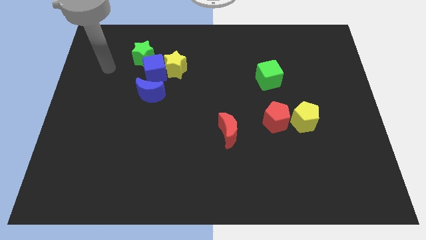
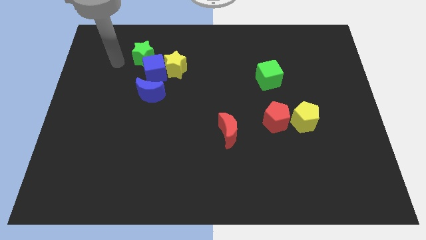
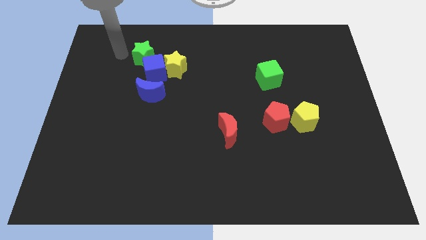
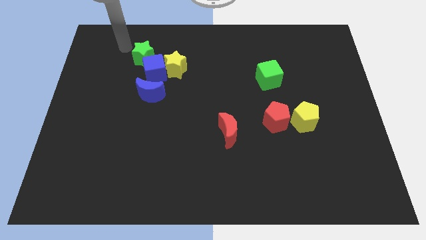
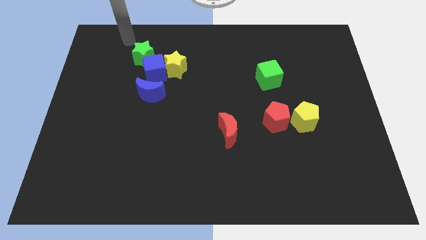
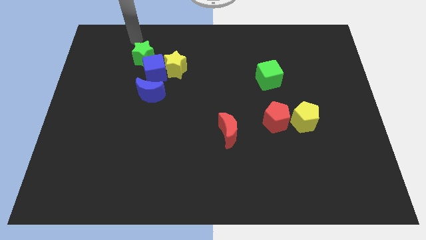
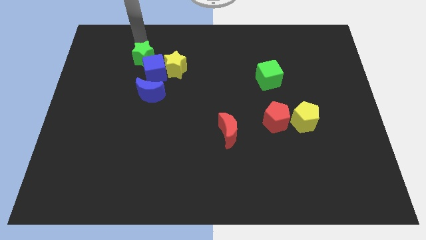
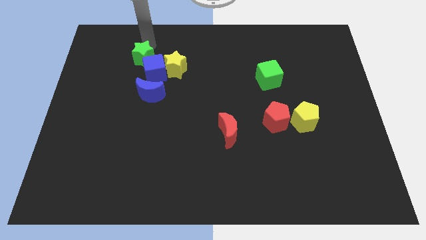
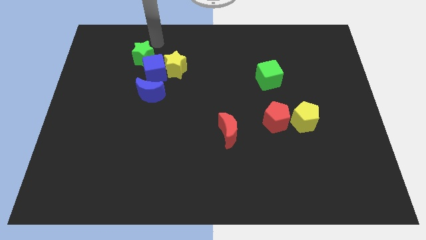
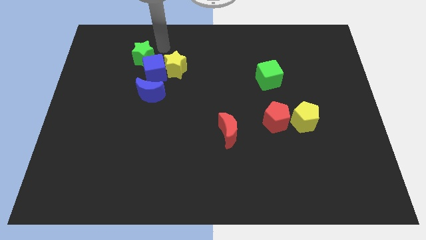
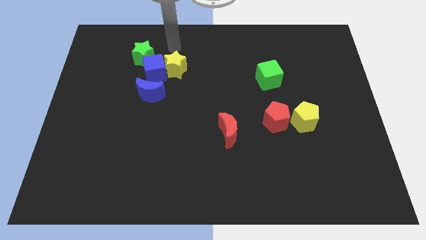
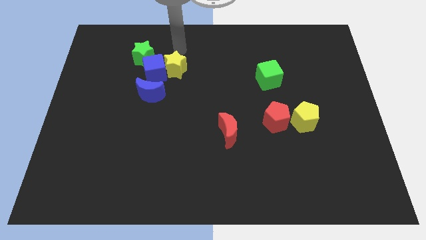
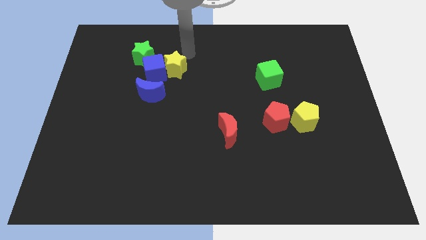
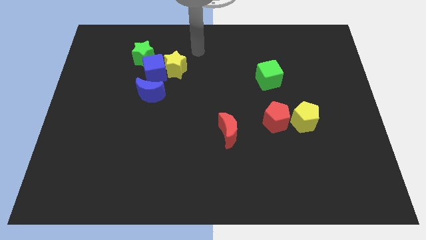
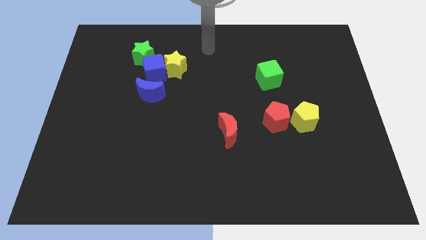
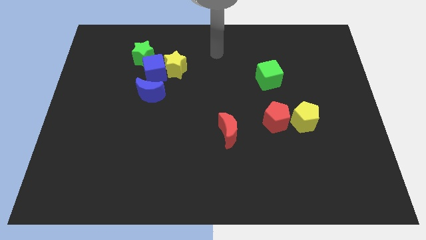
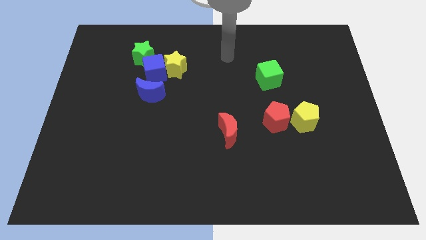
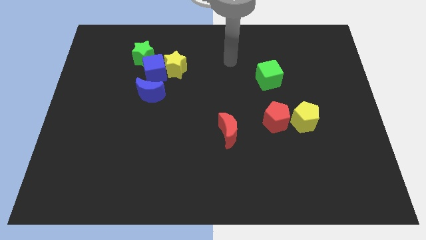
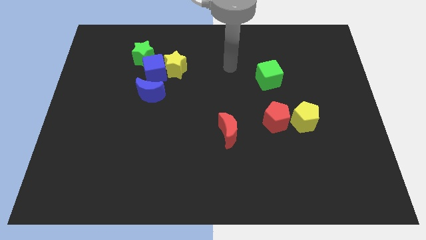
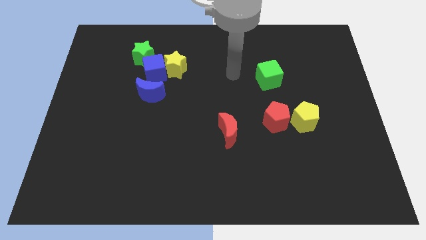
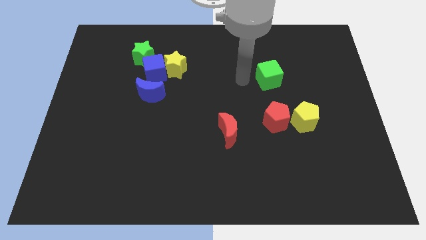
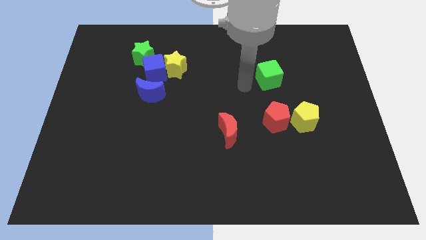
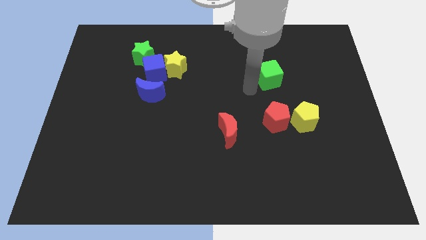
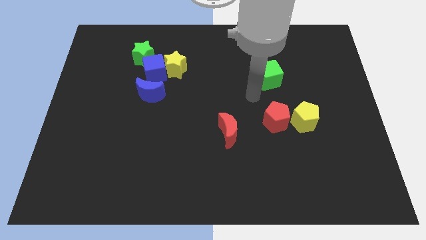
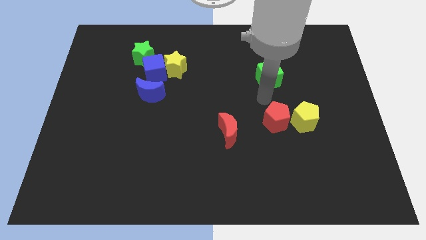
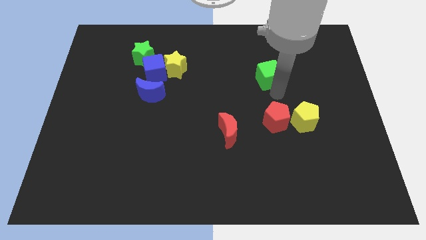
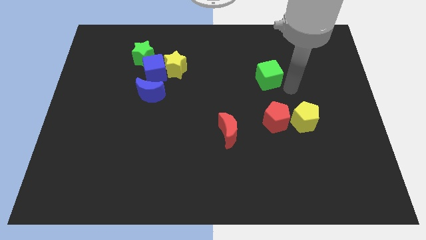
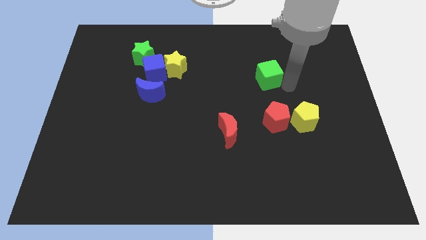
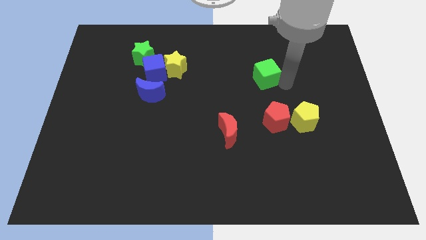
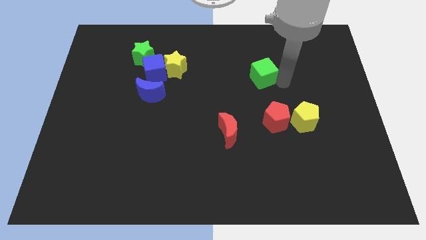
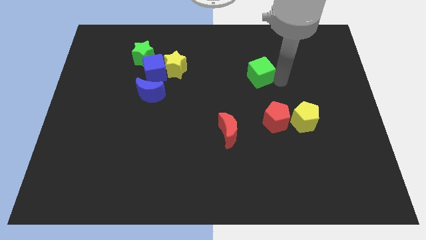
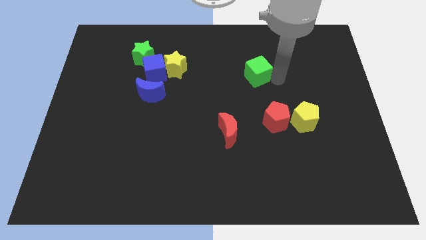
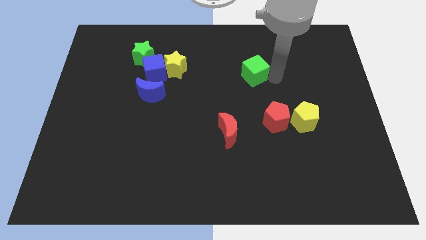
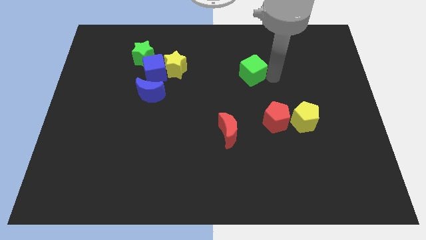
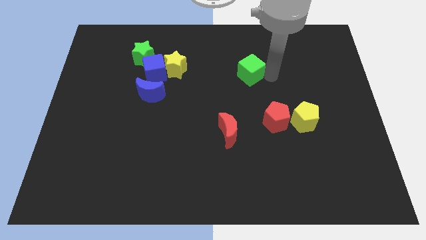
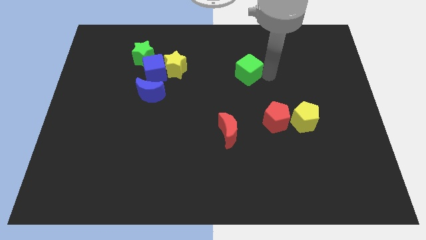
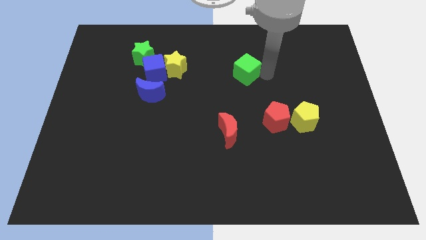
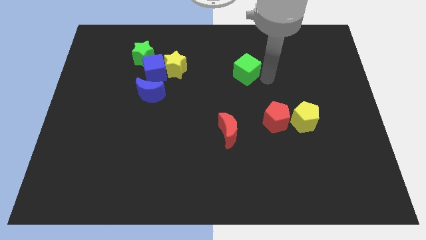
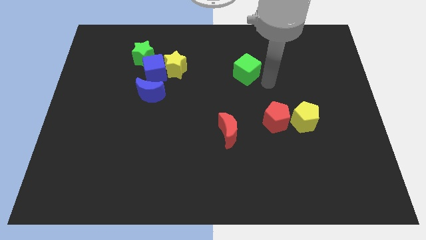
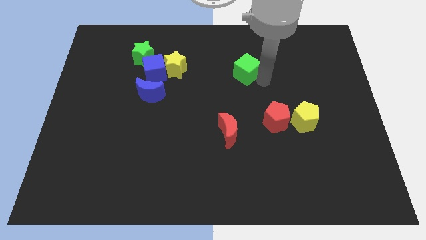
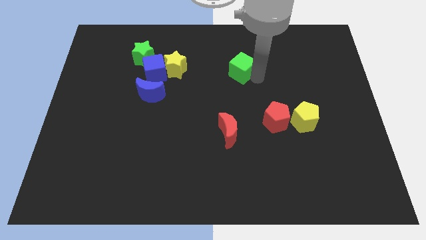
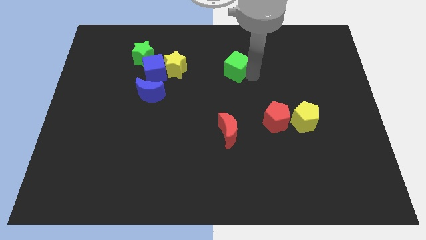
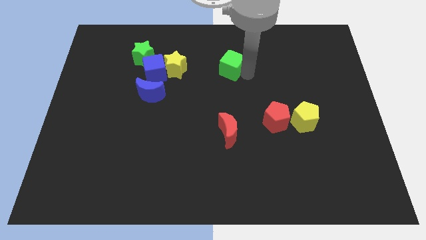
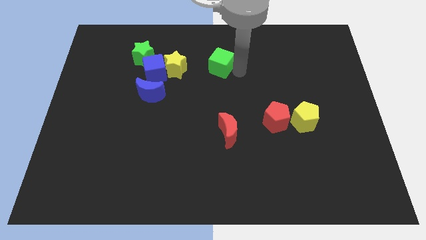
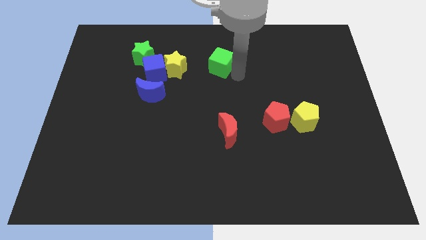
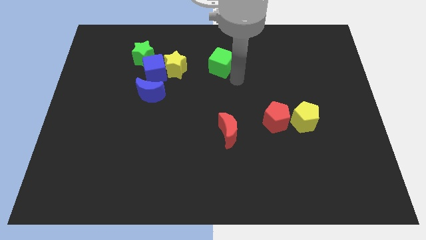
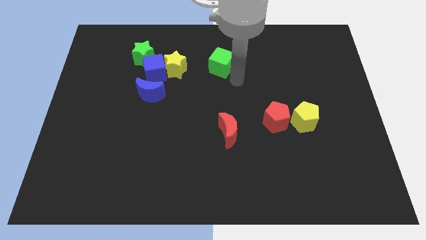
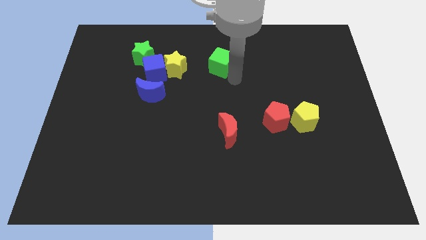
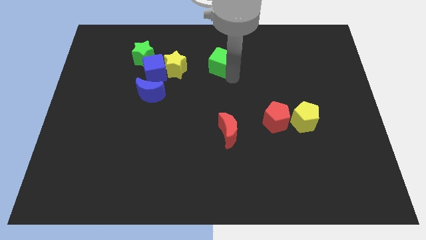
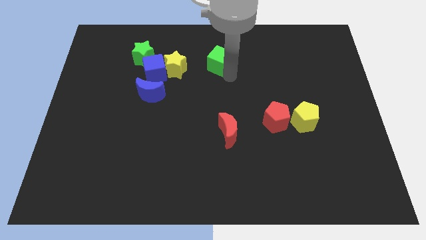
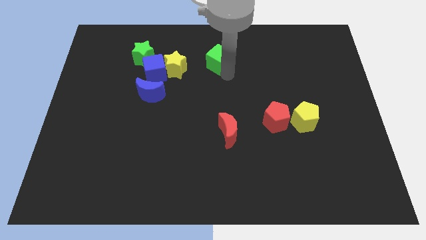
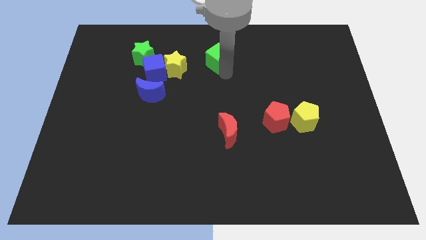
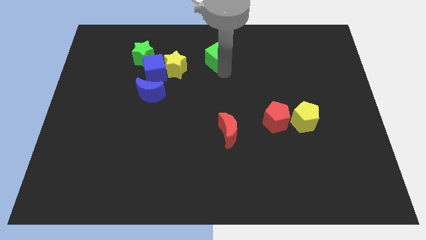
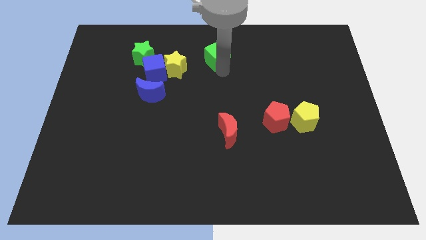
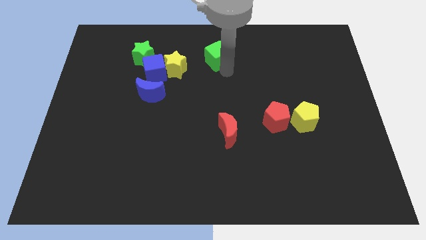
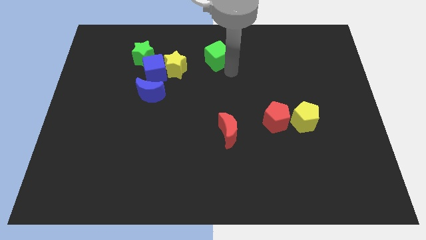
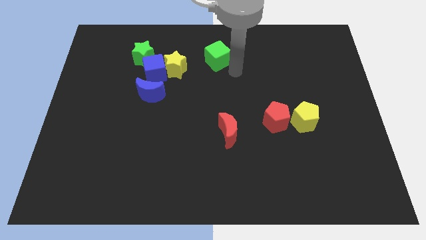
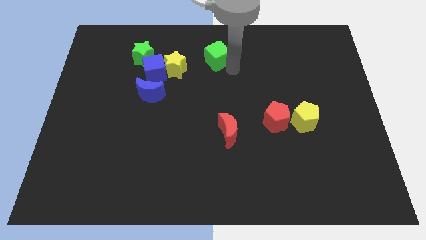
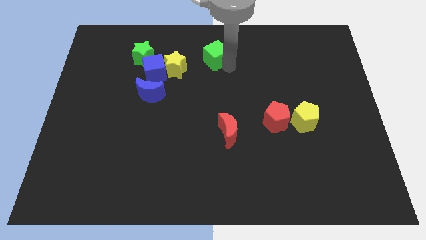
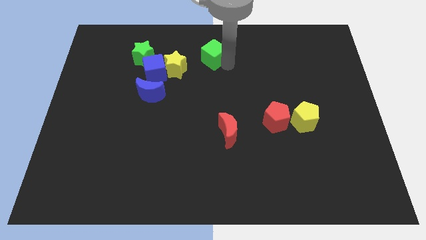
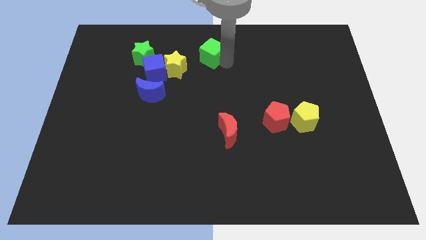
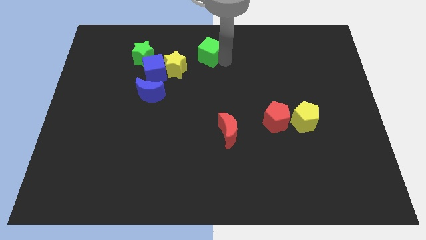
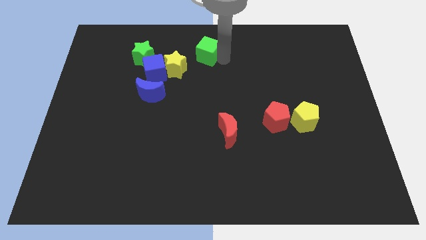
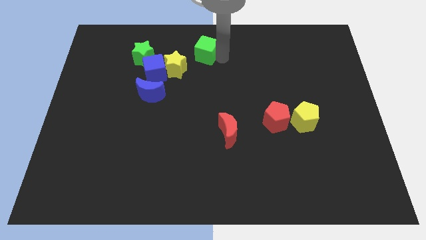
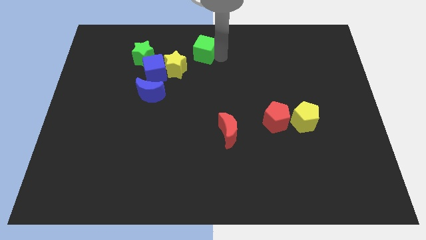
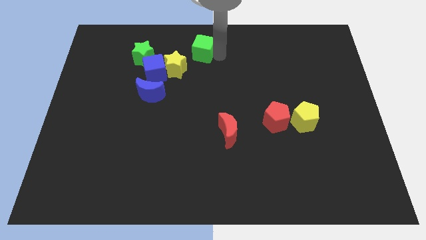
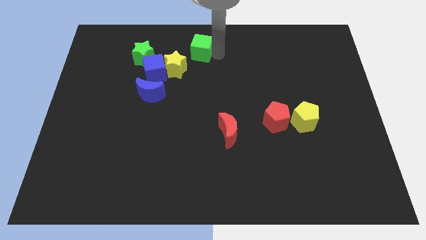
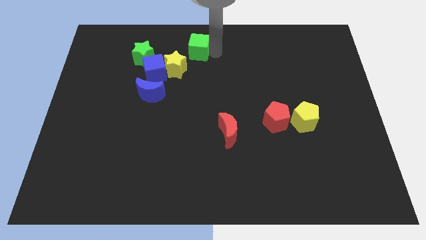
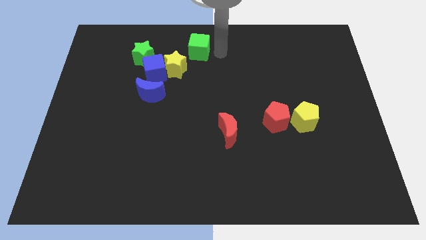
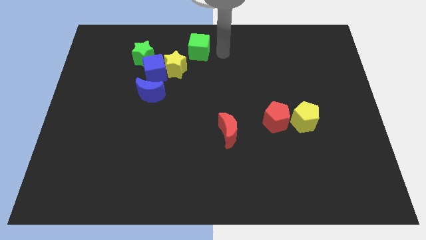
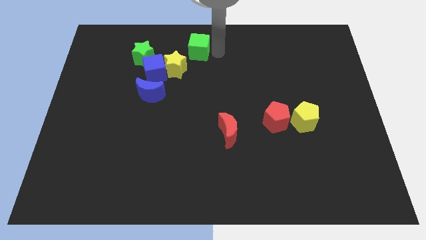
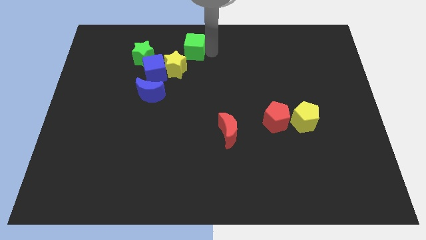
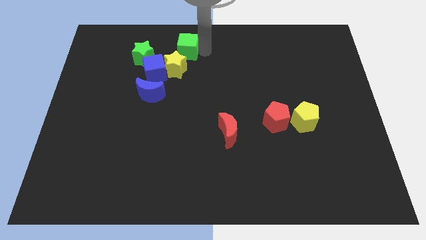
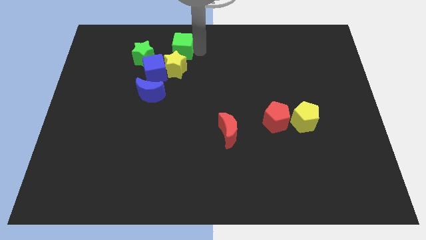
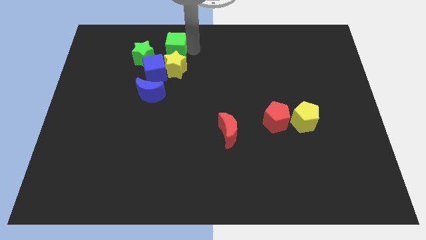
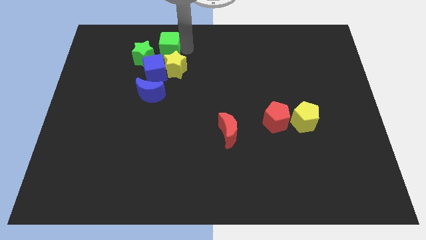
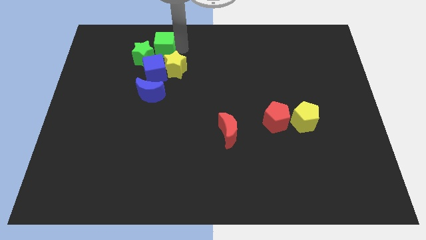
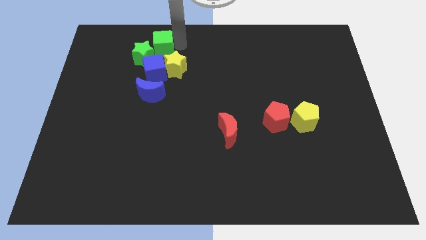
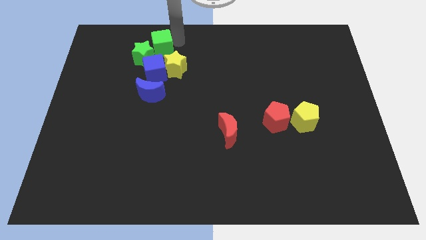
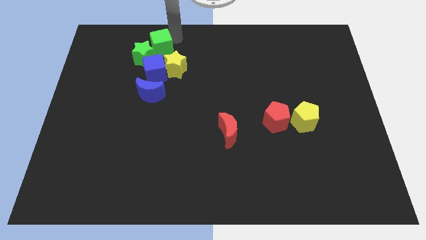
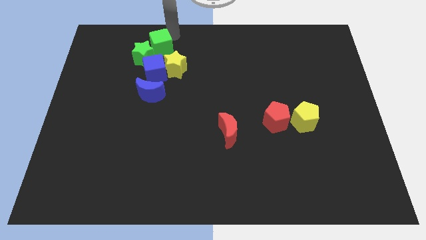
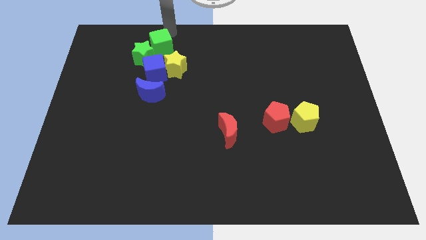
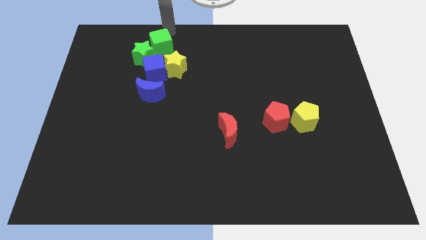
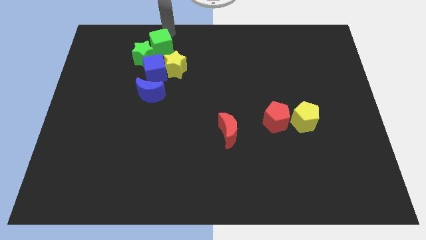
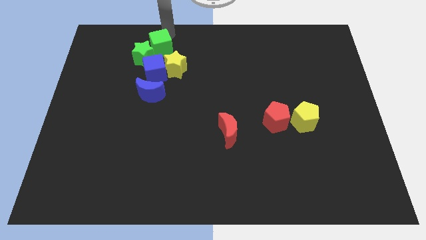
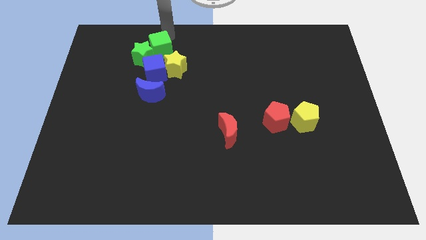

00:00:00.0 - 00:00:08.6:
slide the green cube above the blue moon
